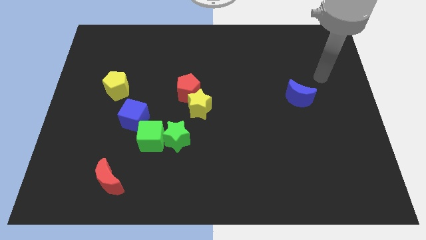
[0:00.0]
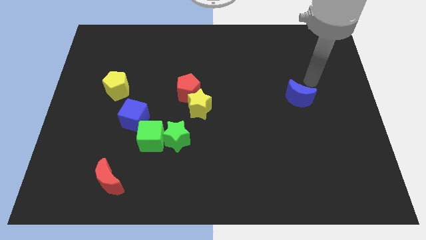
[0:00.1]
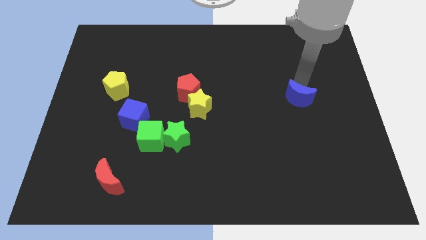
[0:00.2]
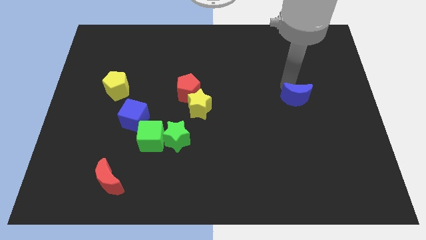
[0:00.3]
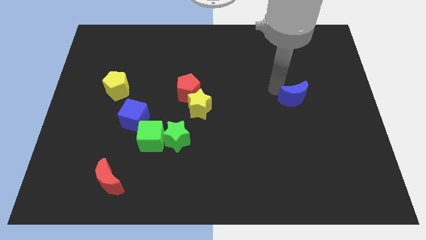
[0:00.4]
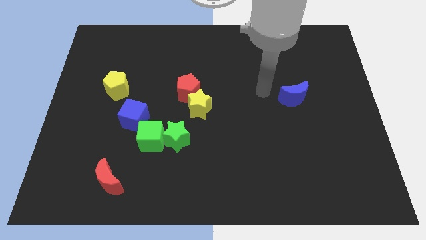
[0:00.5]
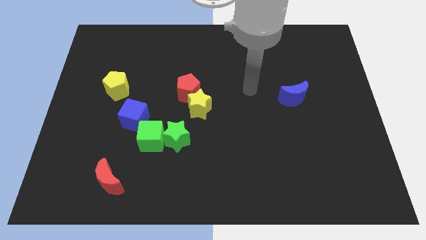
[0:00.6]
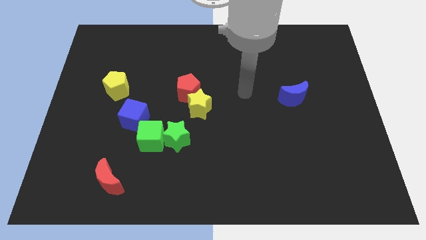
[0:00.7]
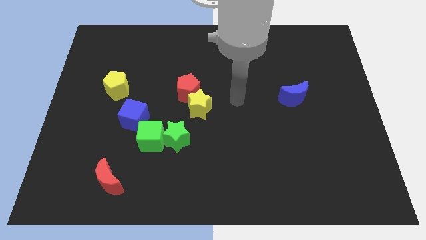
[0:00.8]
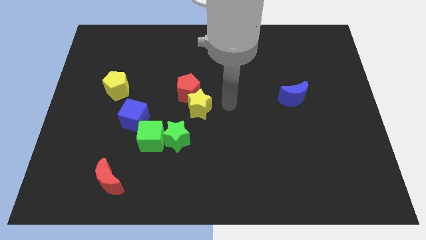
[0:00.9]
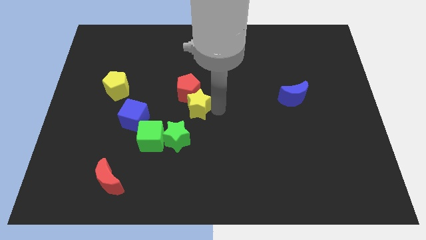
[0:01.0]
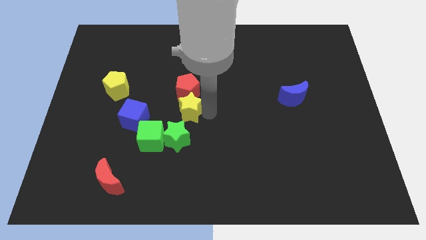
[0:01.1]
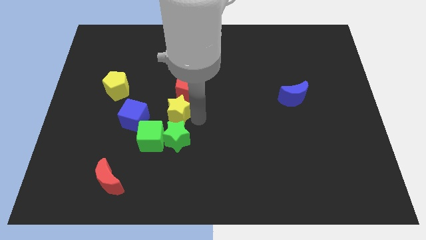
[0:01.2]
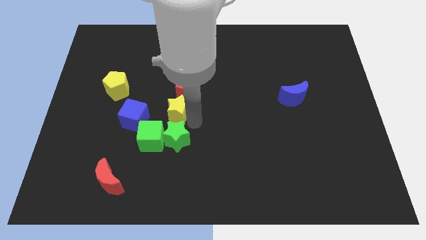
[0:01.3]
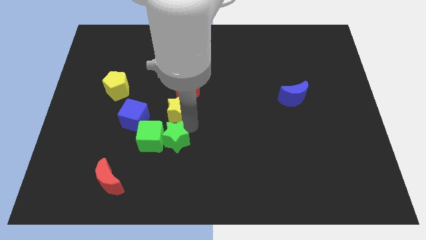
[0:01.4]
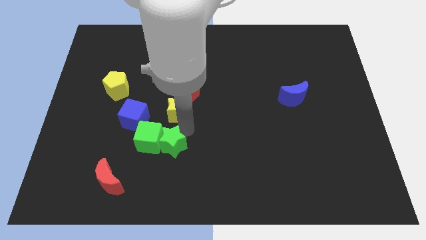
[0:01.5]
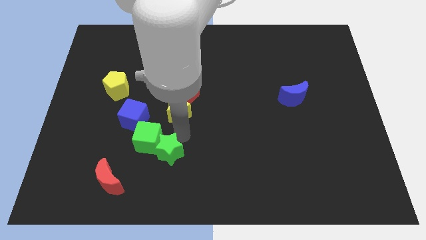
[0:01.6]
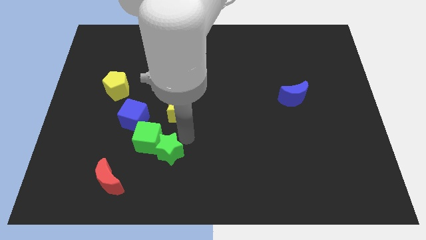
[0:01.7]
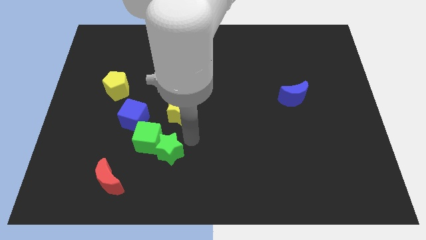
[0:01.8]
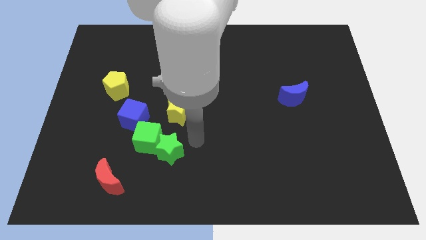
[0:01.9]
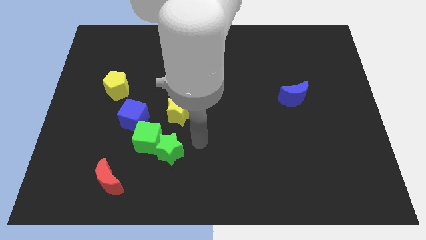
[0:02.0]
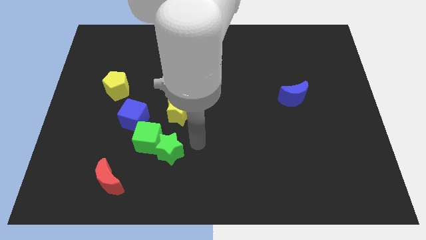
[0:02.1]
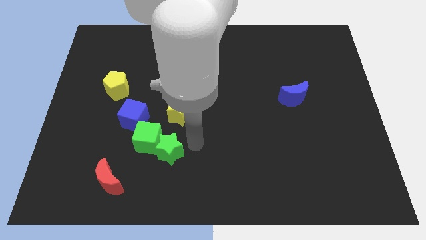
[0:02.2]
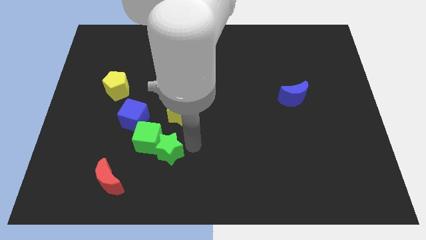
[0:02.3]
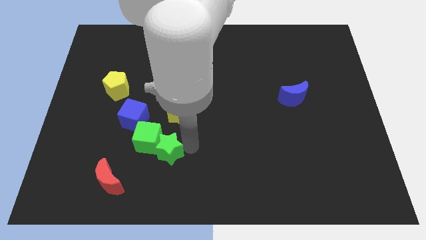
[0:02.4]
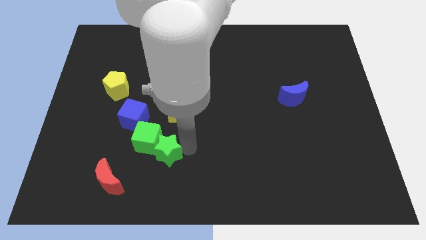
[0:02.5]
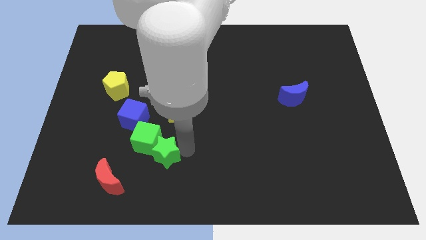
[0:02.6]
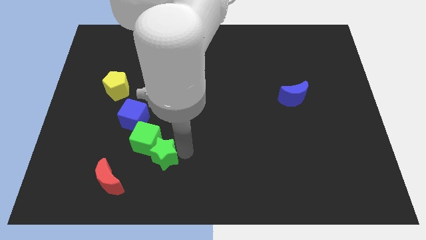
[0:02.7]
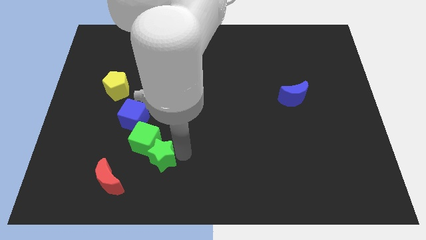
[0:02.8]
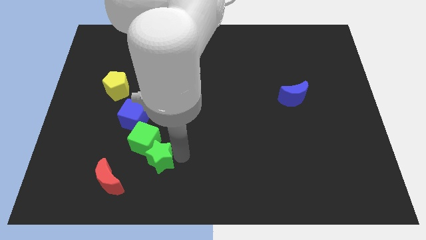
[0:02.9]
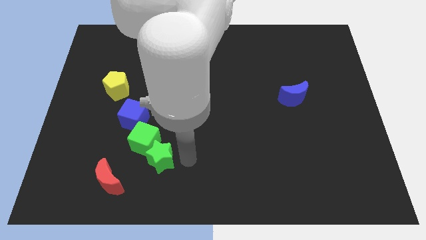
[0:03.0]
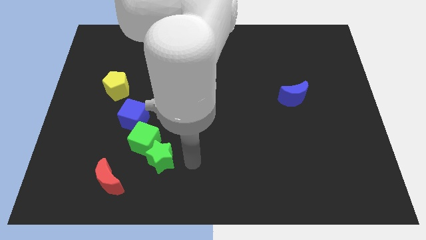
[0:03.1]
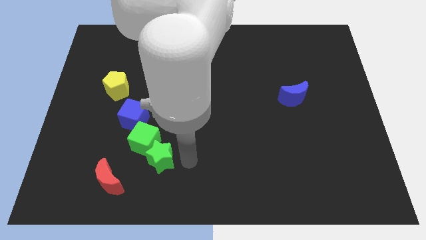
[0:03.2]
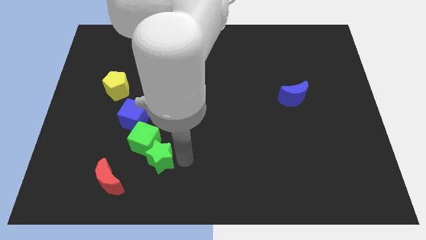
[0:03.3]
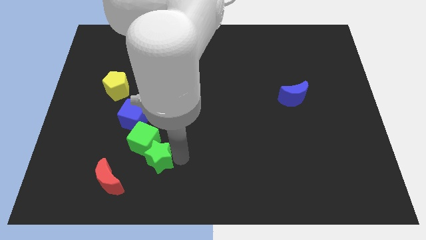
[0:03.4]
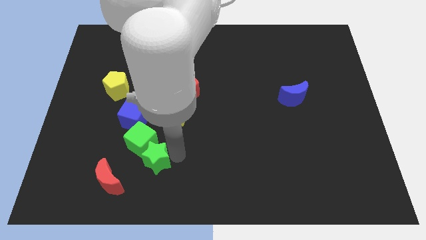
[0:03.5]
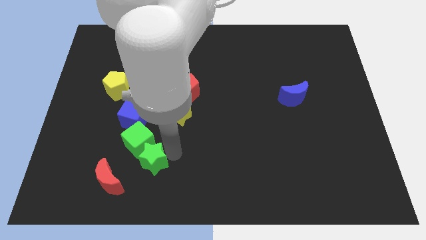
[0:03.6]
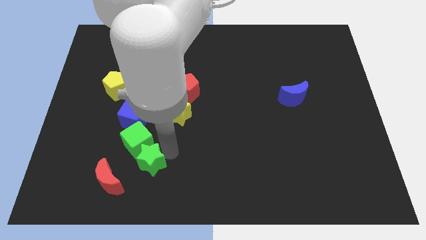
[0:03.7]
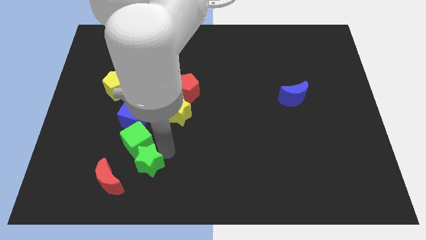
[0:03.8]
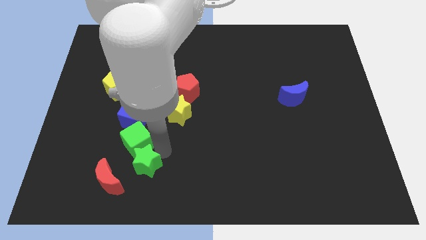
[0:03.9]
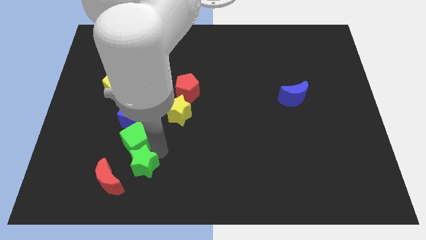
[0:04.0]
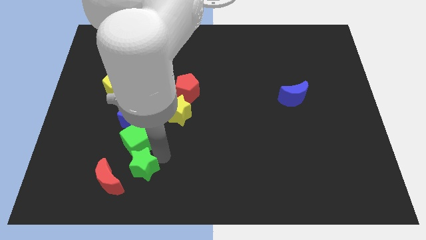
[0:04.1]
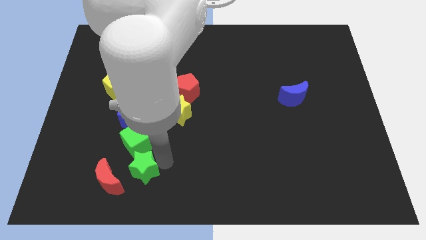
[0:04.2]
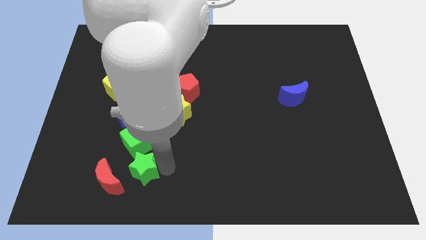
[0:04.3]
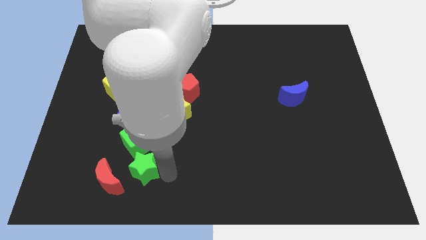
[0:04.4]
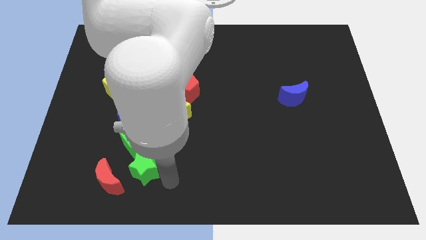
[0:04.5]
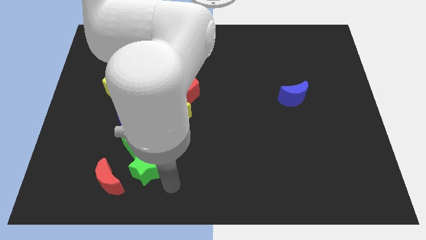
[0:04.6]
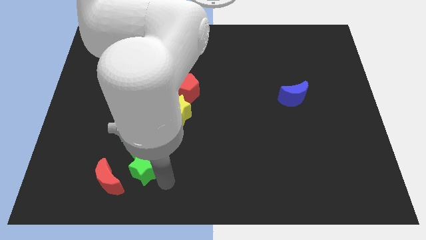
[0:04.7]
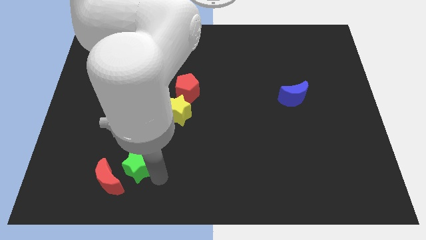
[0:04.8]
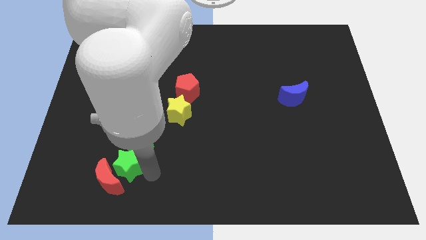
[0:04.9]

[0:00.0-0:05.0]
slightly push the green star to the left

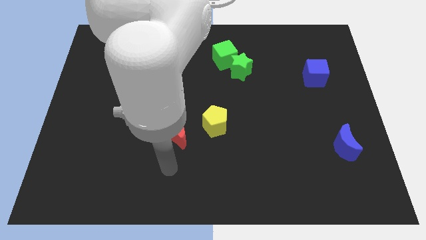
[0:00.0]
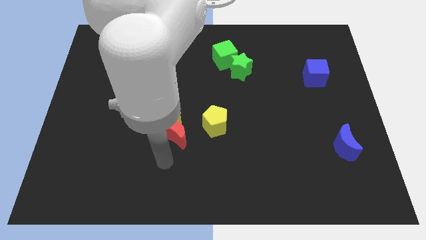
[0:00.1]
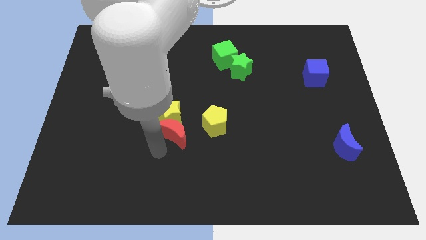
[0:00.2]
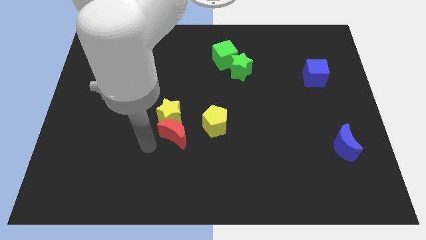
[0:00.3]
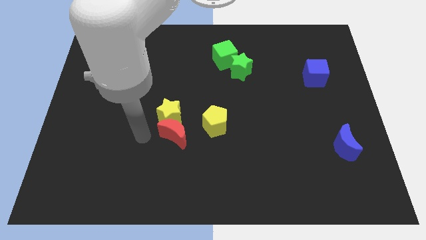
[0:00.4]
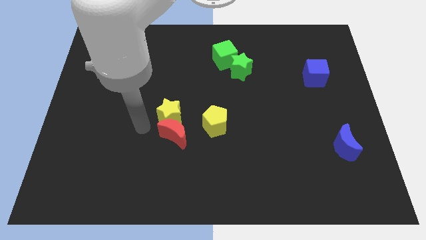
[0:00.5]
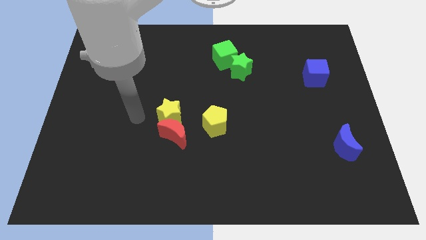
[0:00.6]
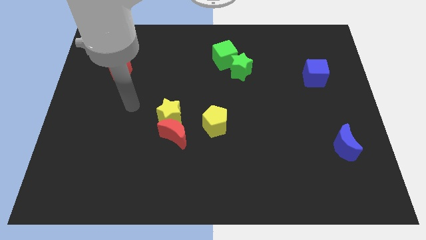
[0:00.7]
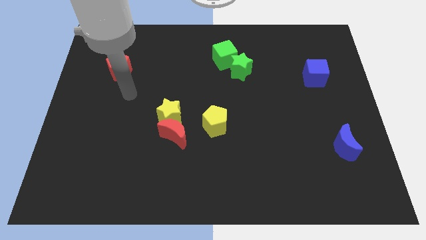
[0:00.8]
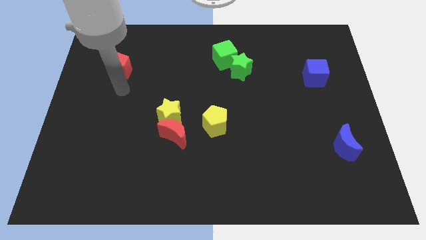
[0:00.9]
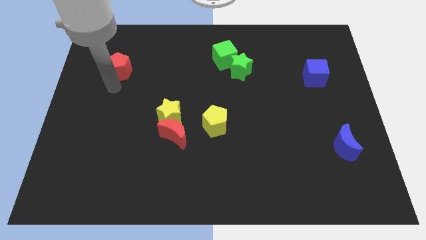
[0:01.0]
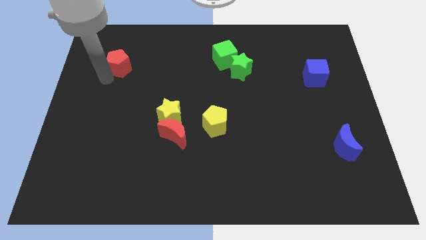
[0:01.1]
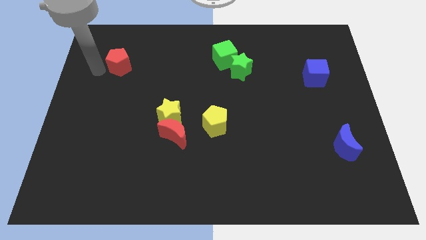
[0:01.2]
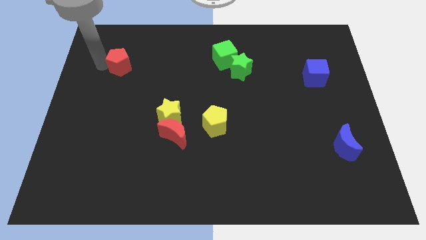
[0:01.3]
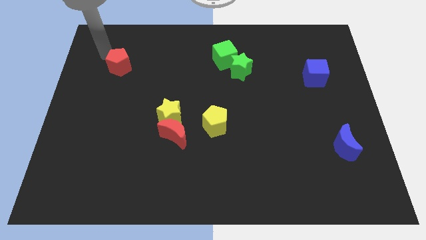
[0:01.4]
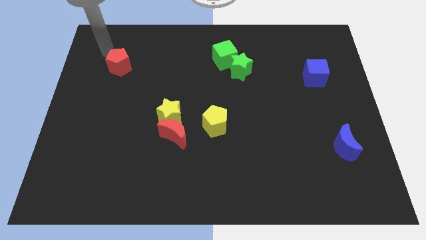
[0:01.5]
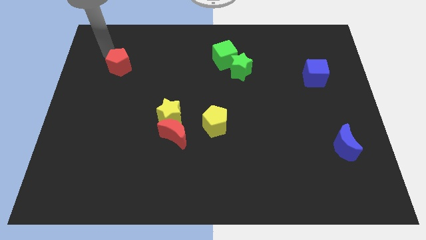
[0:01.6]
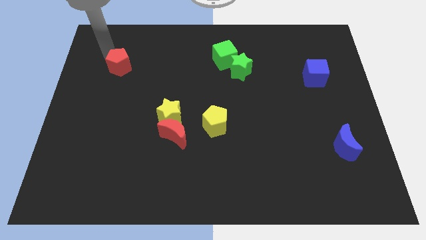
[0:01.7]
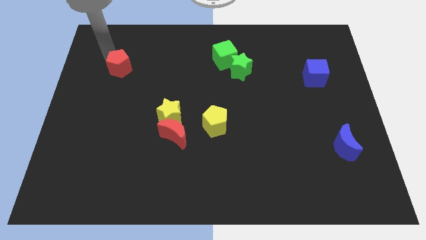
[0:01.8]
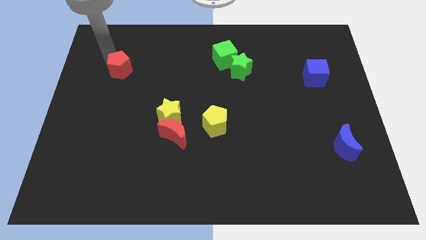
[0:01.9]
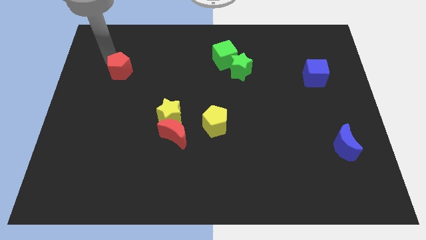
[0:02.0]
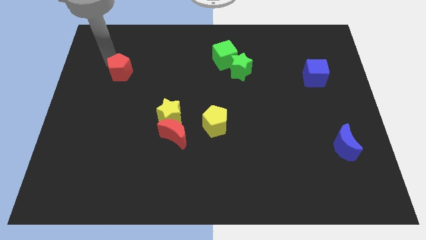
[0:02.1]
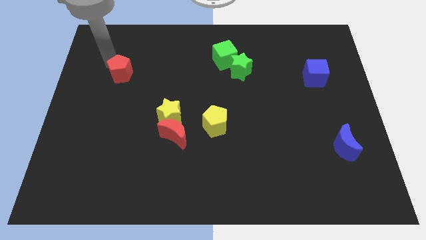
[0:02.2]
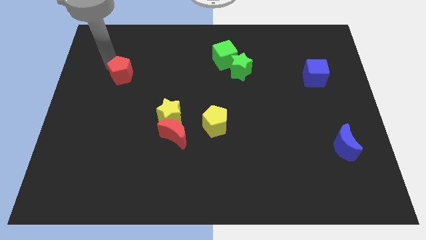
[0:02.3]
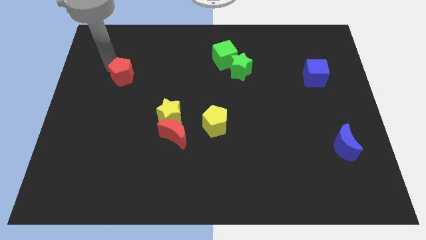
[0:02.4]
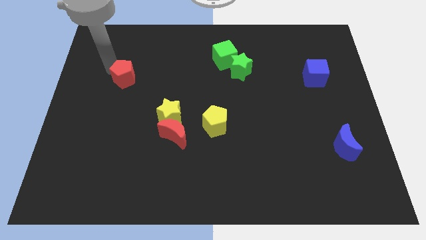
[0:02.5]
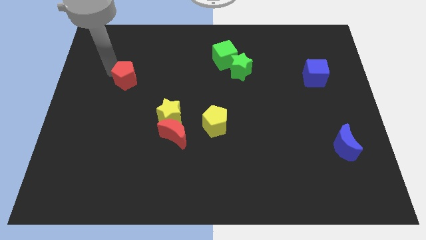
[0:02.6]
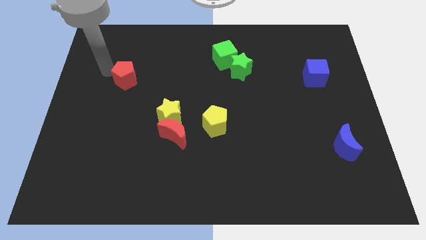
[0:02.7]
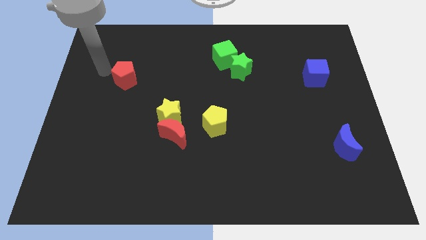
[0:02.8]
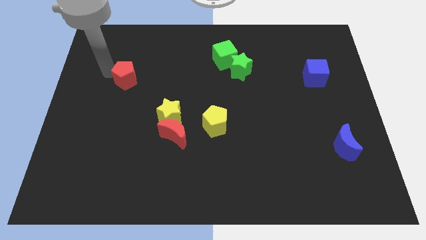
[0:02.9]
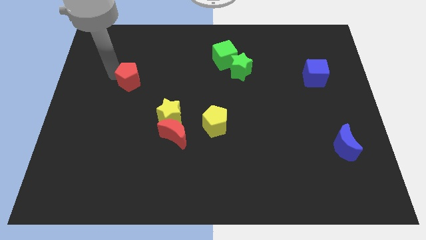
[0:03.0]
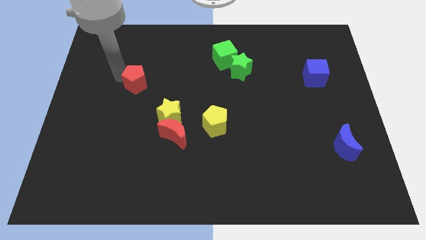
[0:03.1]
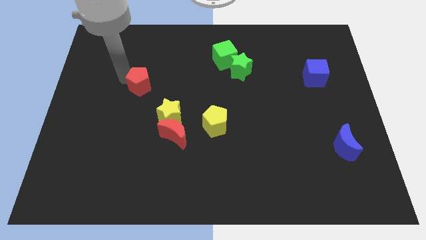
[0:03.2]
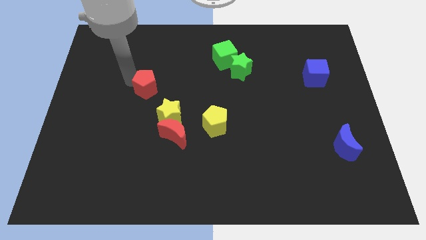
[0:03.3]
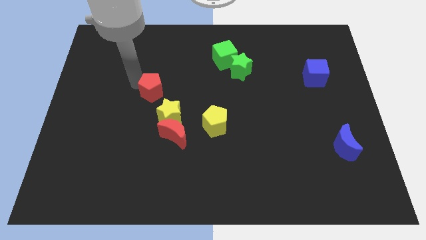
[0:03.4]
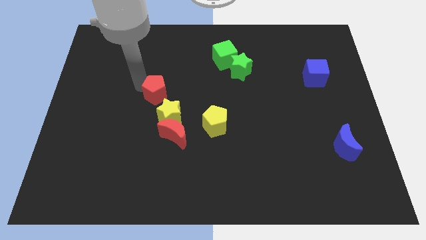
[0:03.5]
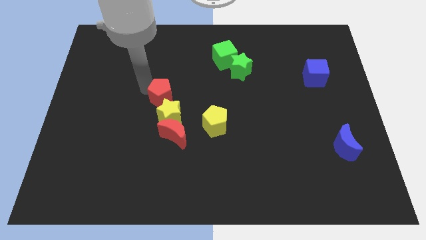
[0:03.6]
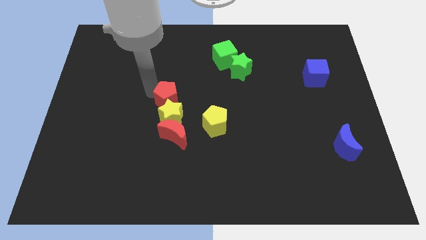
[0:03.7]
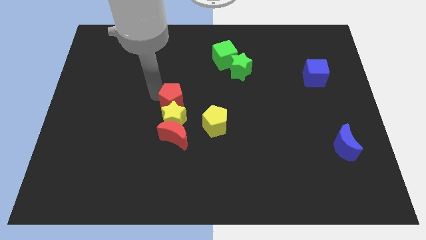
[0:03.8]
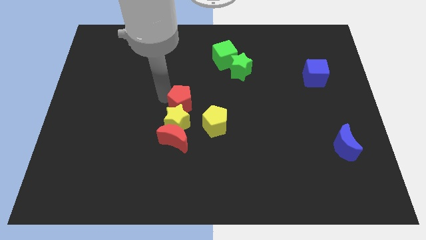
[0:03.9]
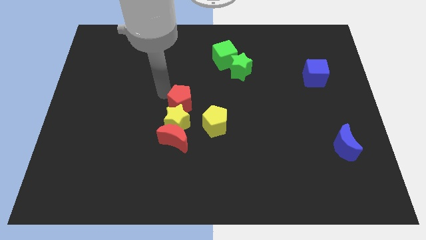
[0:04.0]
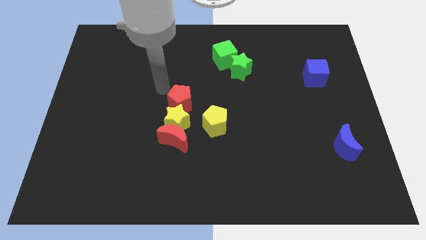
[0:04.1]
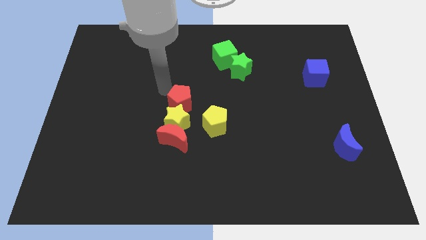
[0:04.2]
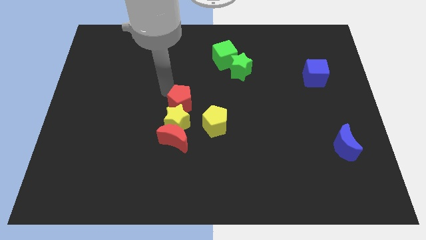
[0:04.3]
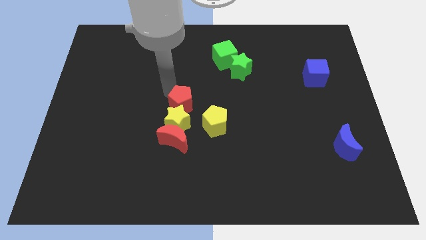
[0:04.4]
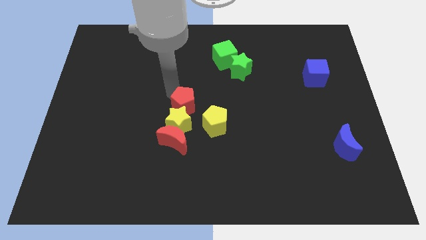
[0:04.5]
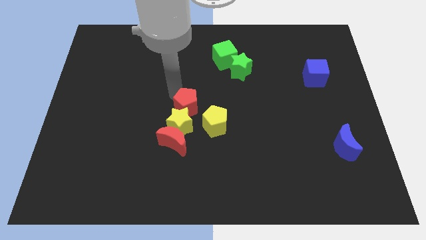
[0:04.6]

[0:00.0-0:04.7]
slide the red pentagon downwards and to the right diagonally
